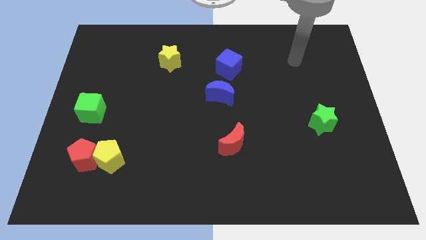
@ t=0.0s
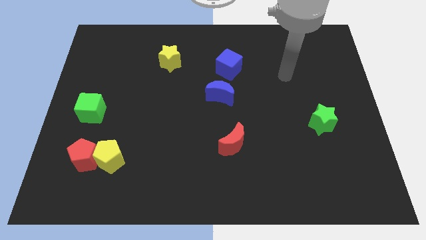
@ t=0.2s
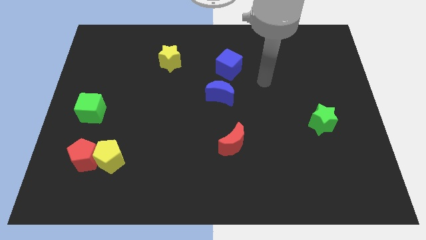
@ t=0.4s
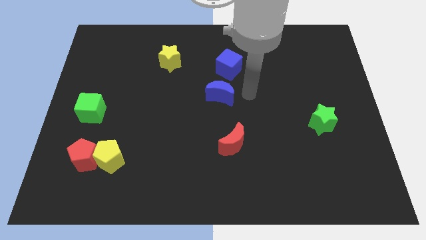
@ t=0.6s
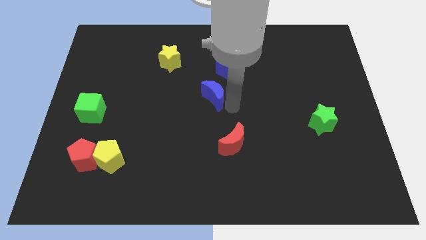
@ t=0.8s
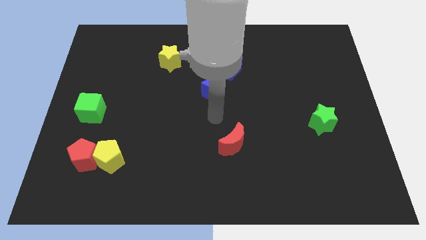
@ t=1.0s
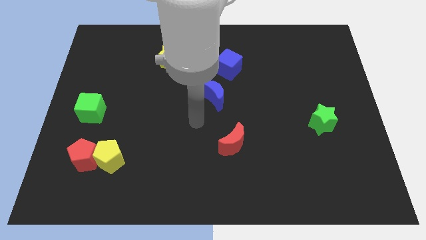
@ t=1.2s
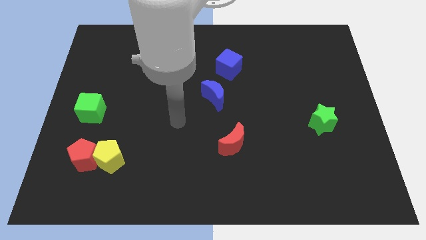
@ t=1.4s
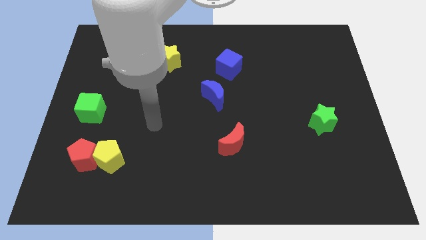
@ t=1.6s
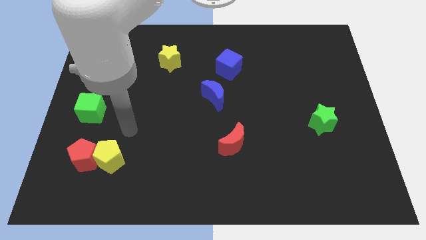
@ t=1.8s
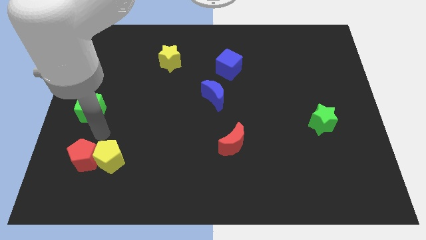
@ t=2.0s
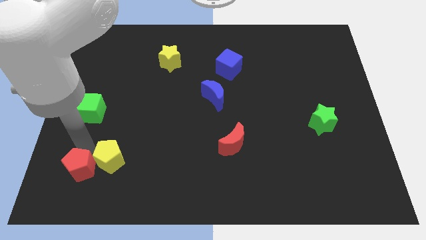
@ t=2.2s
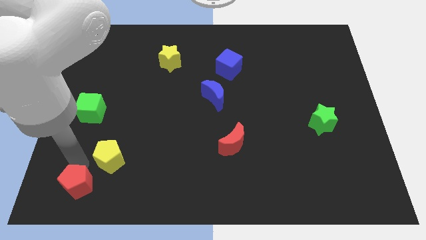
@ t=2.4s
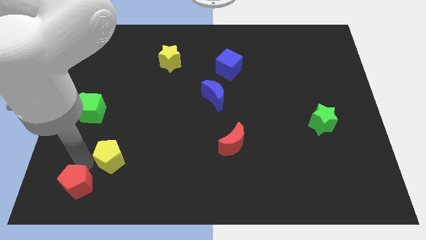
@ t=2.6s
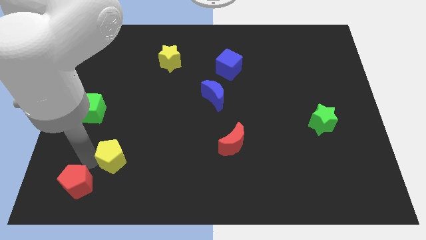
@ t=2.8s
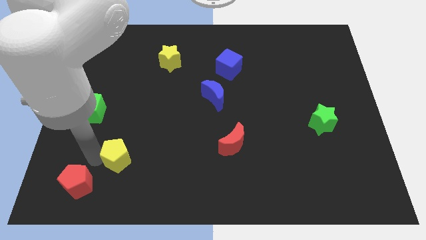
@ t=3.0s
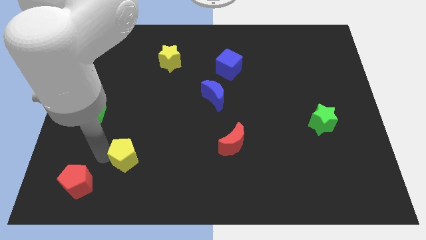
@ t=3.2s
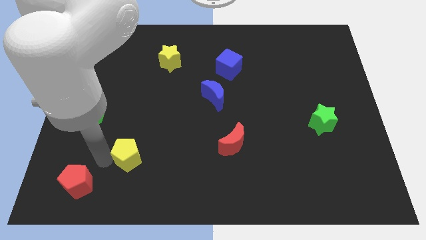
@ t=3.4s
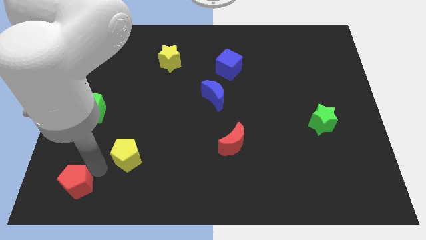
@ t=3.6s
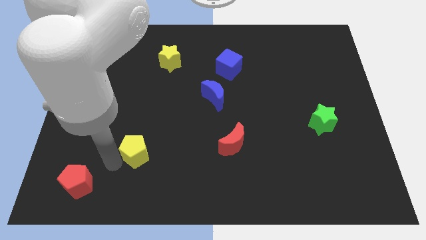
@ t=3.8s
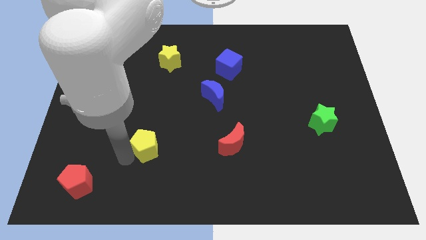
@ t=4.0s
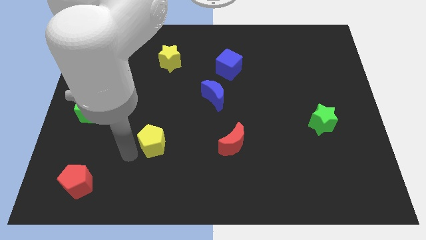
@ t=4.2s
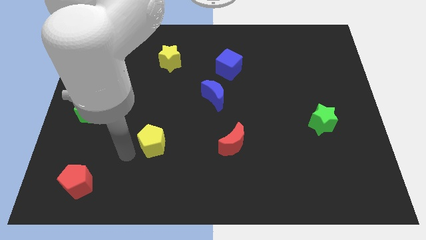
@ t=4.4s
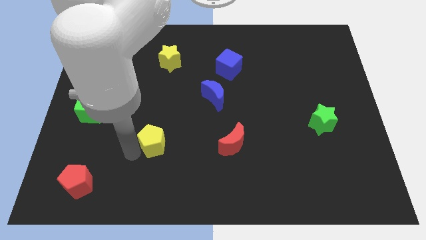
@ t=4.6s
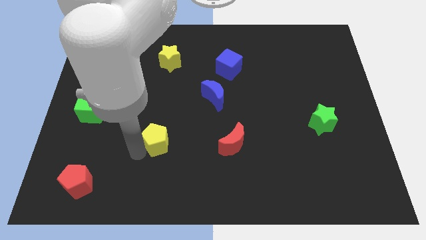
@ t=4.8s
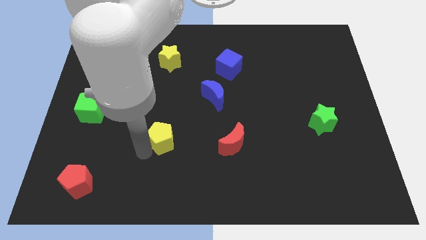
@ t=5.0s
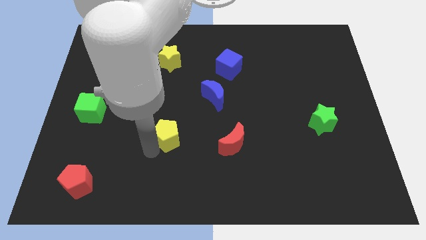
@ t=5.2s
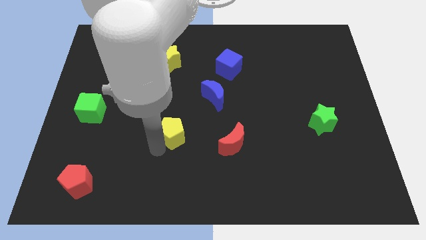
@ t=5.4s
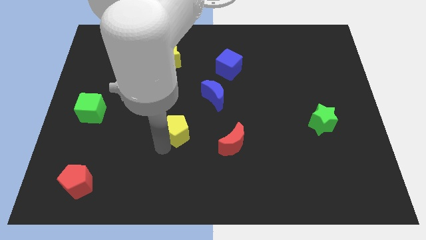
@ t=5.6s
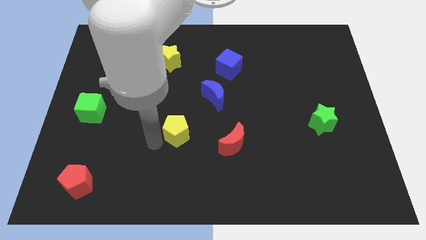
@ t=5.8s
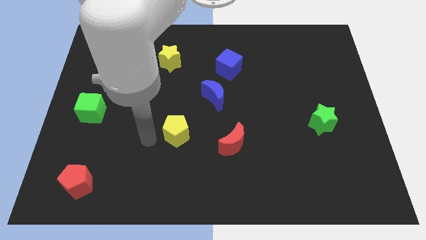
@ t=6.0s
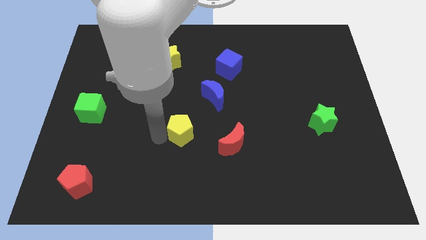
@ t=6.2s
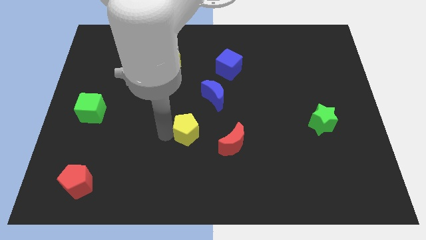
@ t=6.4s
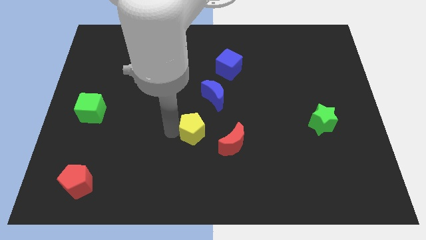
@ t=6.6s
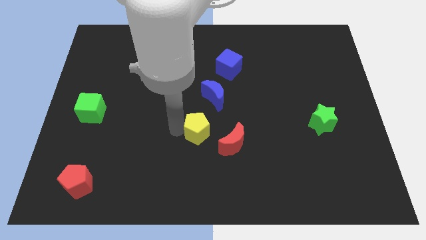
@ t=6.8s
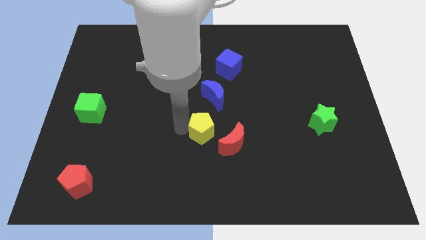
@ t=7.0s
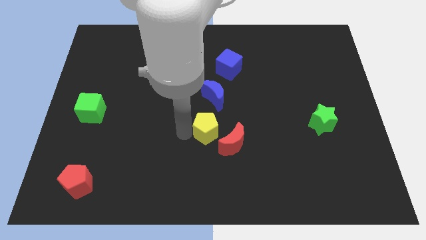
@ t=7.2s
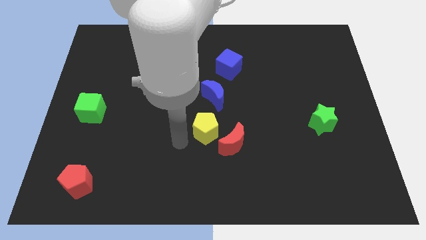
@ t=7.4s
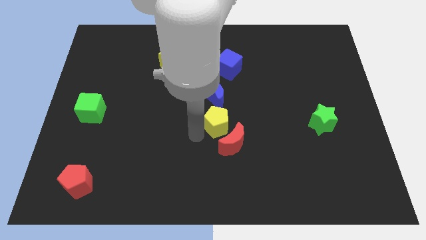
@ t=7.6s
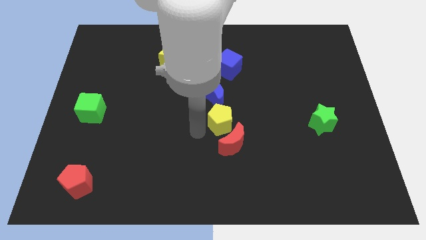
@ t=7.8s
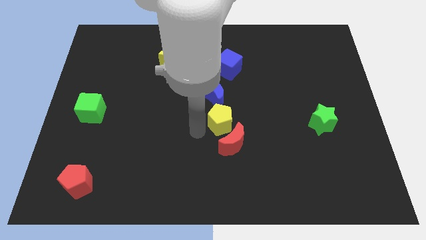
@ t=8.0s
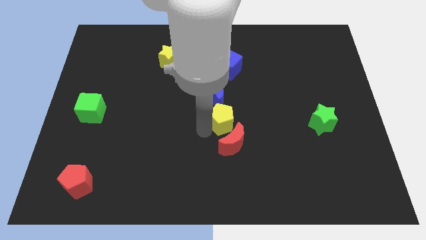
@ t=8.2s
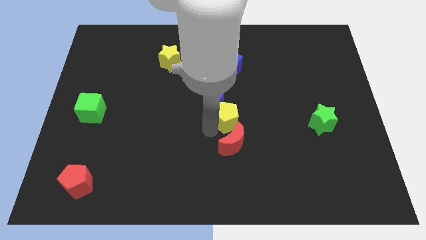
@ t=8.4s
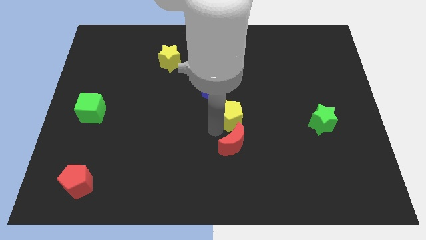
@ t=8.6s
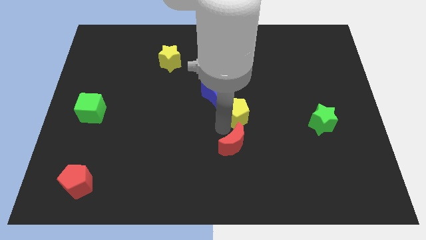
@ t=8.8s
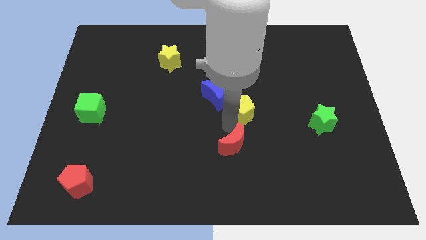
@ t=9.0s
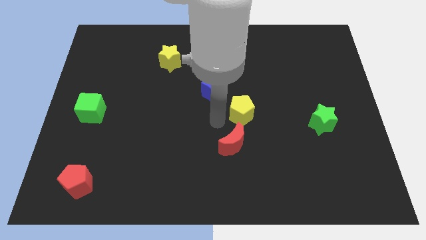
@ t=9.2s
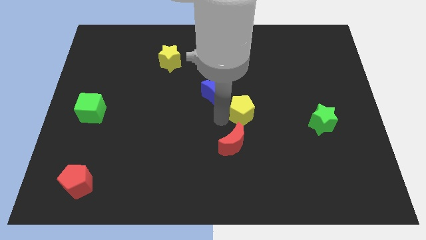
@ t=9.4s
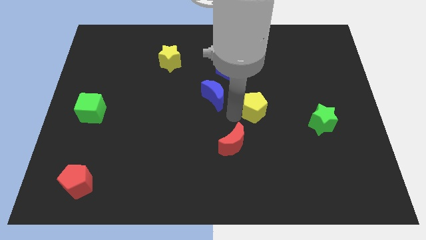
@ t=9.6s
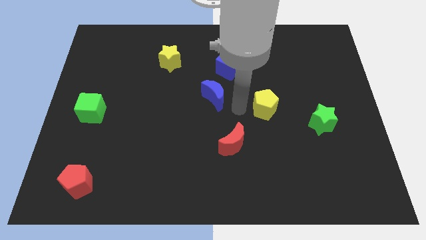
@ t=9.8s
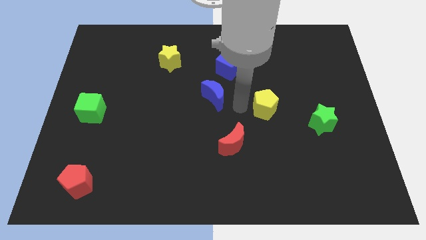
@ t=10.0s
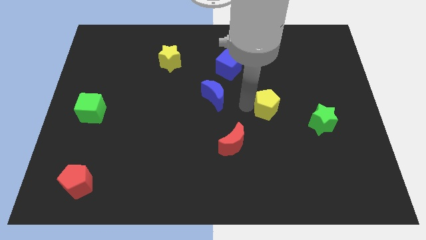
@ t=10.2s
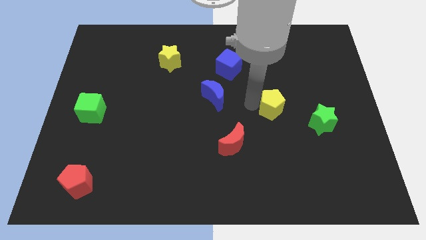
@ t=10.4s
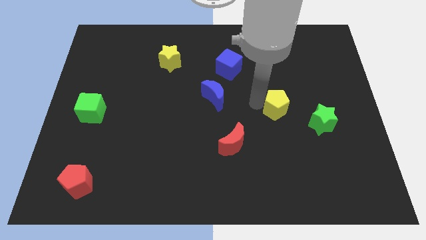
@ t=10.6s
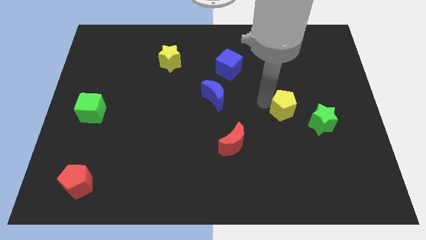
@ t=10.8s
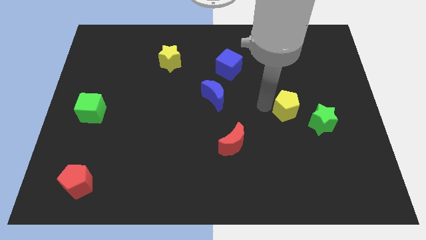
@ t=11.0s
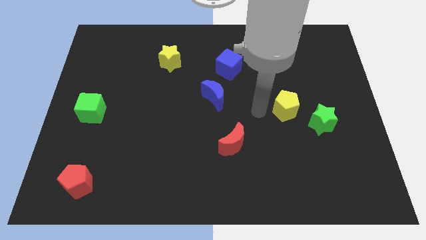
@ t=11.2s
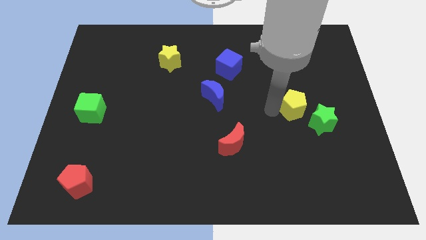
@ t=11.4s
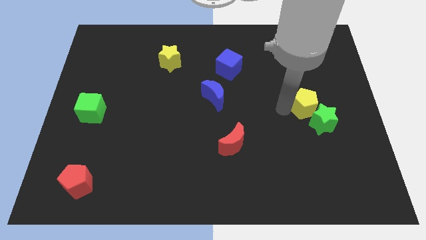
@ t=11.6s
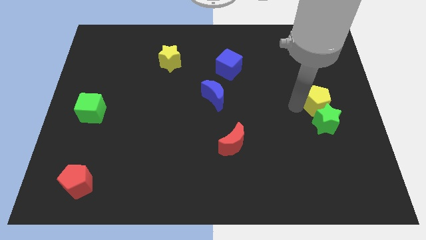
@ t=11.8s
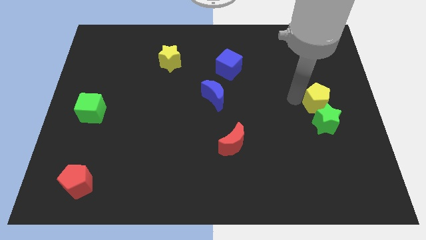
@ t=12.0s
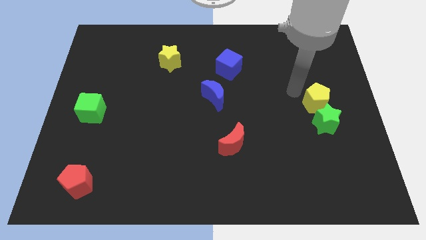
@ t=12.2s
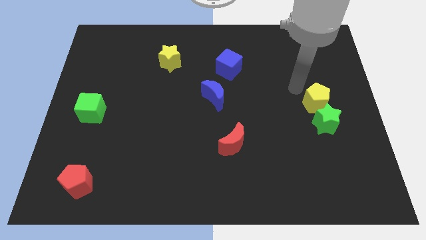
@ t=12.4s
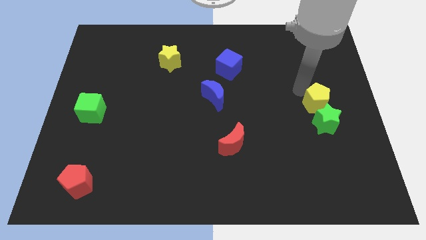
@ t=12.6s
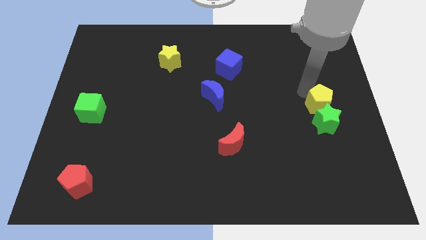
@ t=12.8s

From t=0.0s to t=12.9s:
move the yellow pentagon to the center right

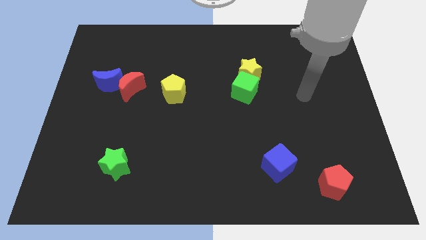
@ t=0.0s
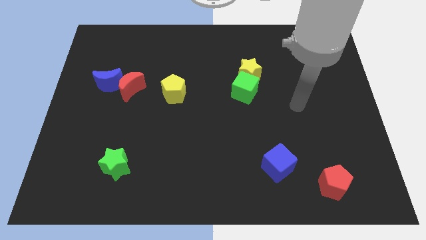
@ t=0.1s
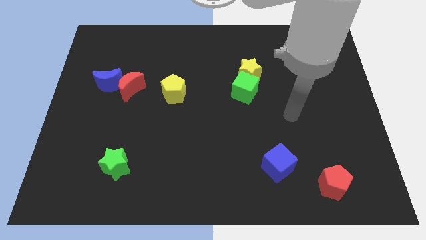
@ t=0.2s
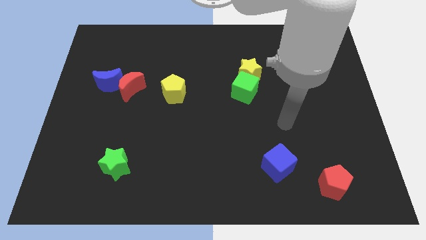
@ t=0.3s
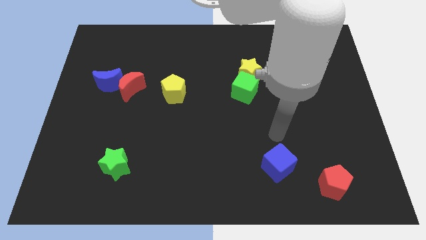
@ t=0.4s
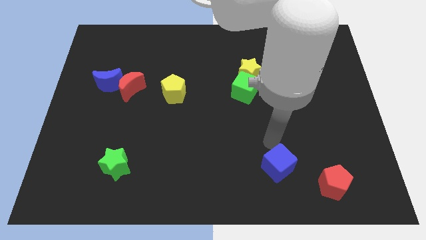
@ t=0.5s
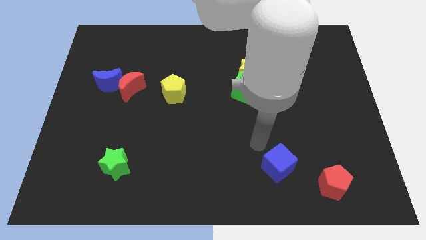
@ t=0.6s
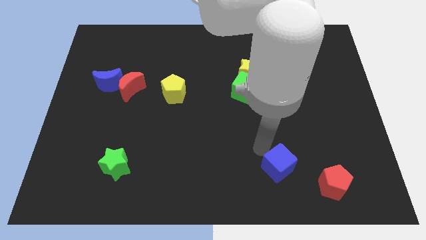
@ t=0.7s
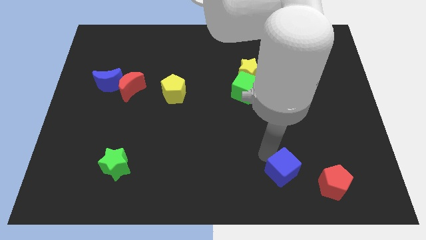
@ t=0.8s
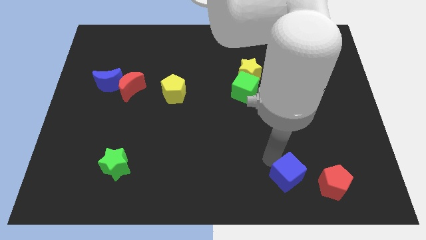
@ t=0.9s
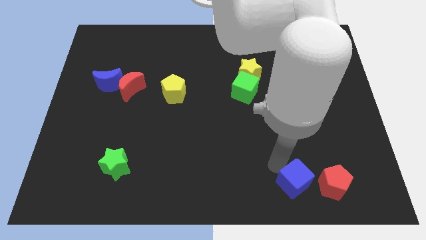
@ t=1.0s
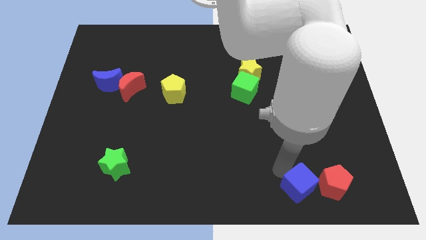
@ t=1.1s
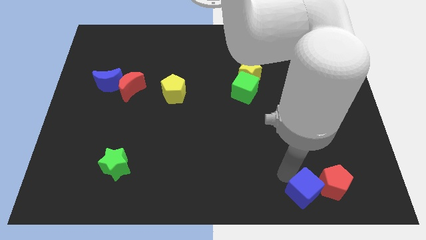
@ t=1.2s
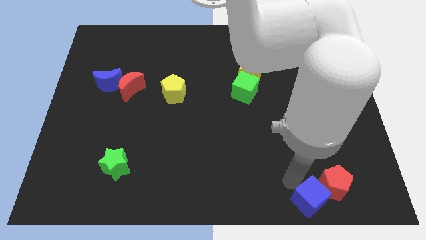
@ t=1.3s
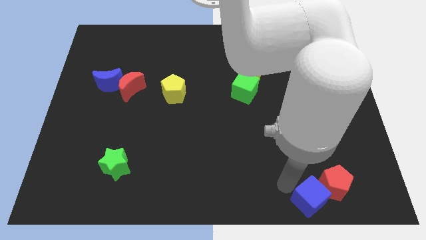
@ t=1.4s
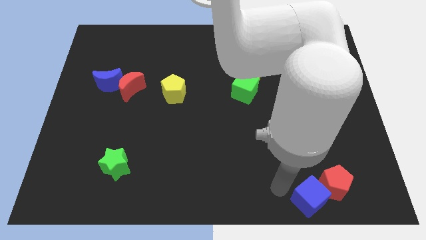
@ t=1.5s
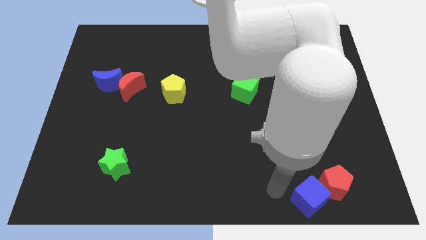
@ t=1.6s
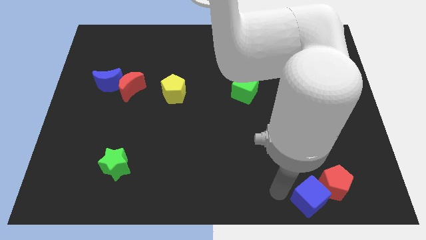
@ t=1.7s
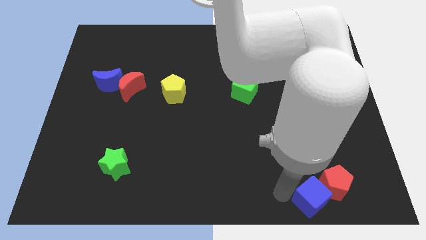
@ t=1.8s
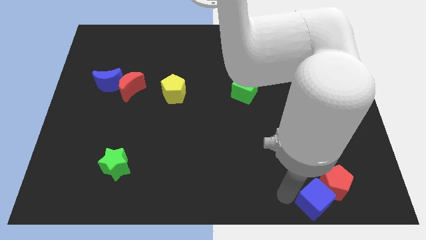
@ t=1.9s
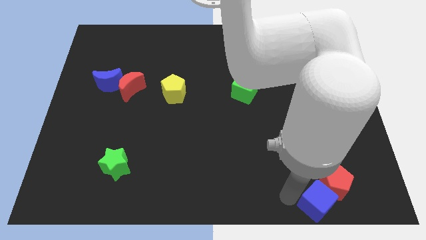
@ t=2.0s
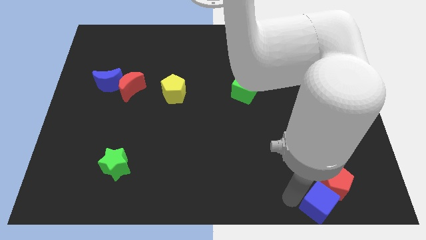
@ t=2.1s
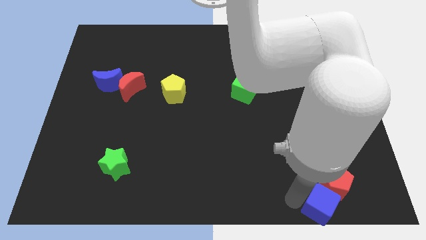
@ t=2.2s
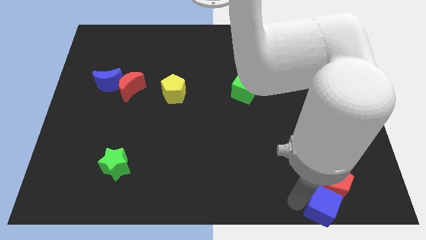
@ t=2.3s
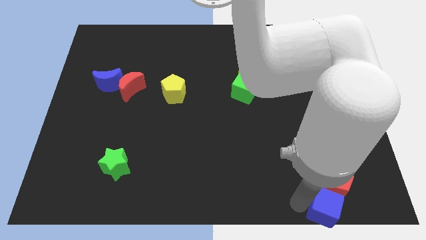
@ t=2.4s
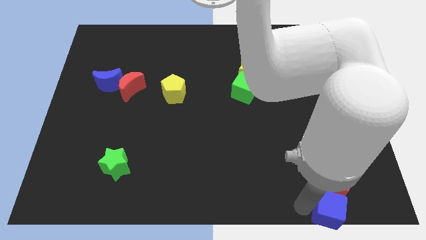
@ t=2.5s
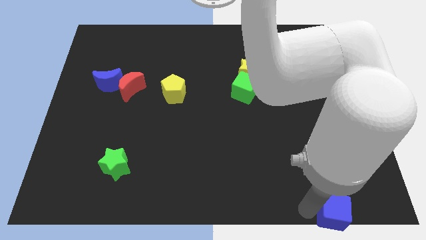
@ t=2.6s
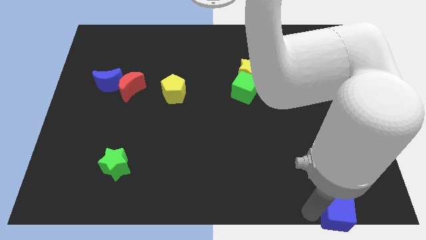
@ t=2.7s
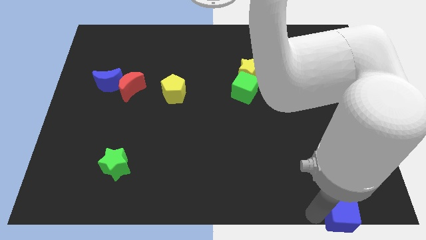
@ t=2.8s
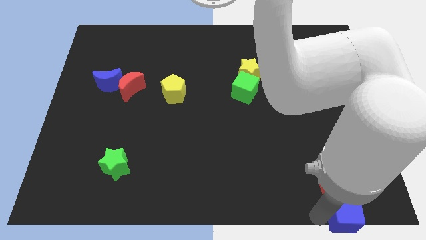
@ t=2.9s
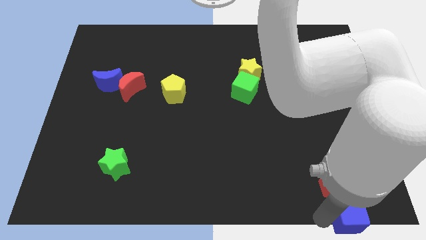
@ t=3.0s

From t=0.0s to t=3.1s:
push the blue cube to the bottom right of the board
